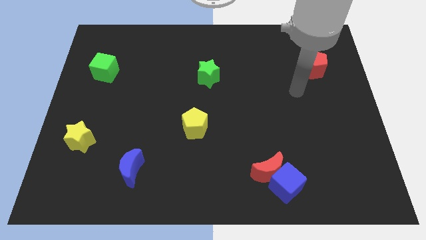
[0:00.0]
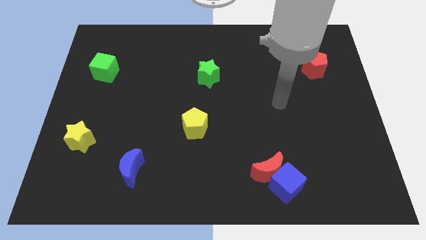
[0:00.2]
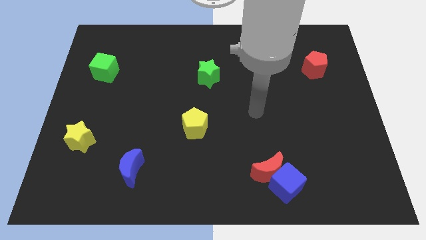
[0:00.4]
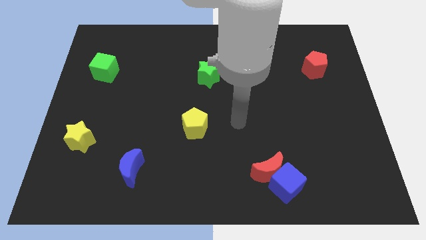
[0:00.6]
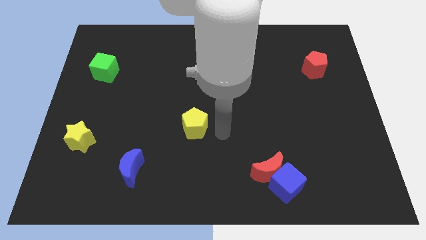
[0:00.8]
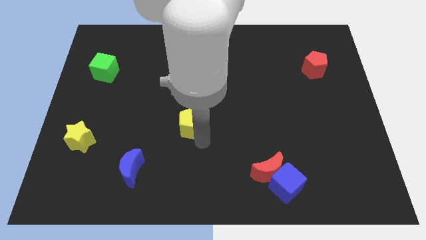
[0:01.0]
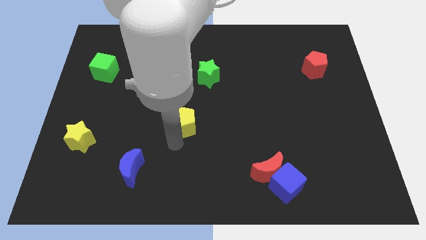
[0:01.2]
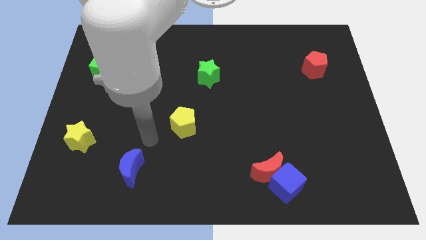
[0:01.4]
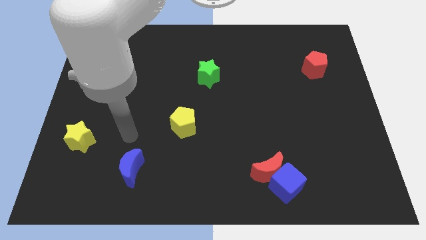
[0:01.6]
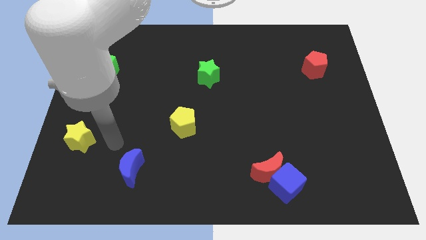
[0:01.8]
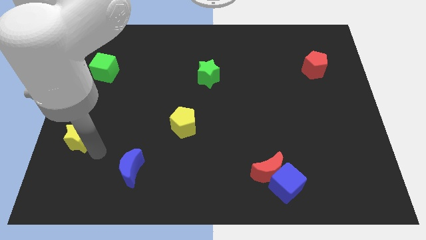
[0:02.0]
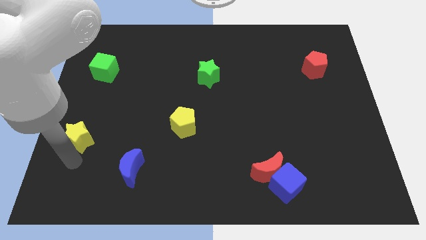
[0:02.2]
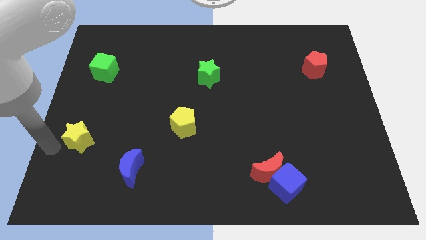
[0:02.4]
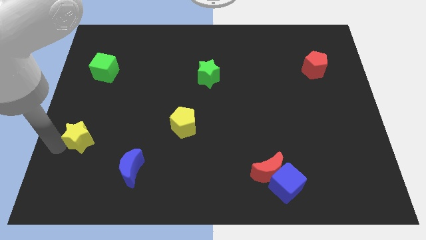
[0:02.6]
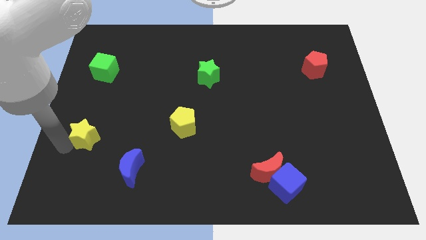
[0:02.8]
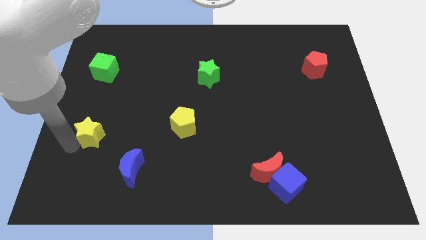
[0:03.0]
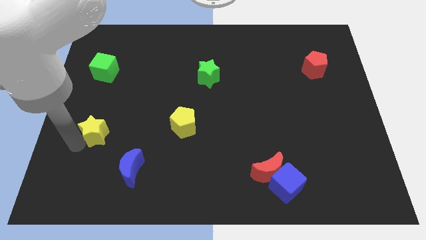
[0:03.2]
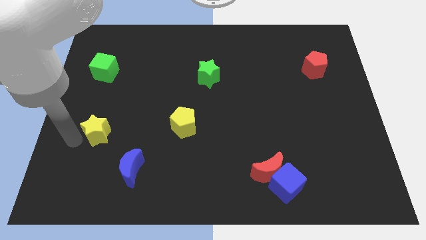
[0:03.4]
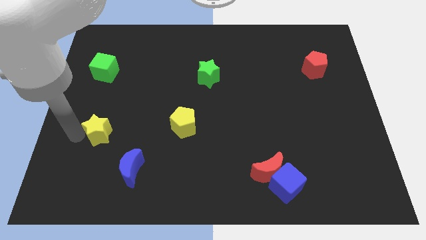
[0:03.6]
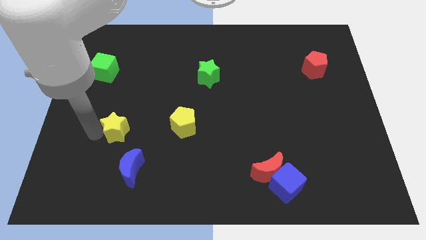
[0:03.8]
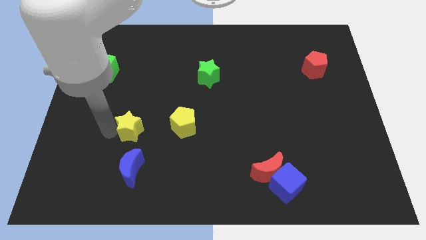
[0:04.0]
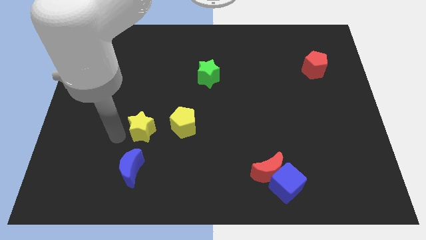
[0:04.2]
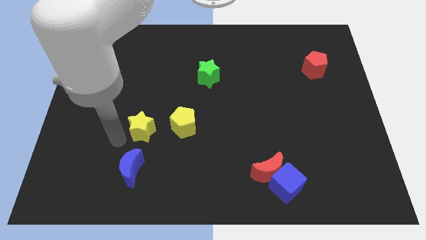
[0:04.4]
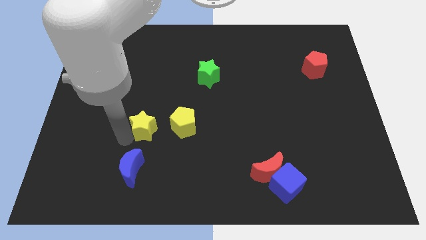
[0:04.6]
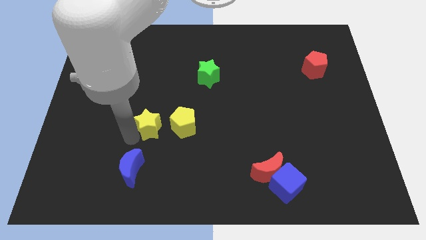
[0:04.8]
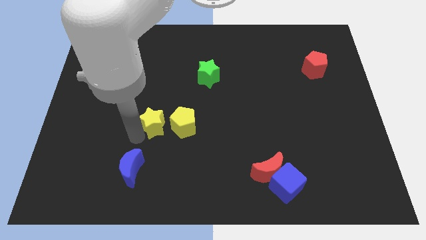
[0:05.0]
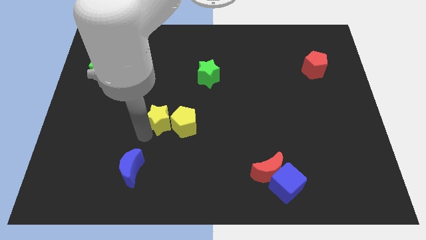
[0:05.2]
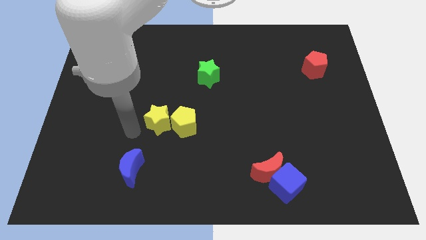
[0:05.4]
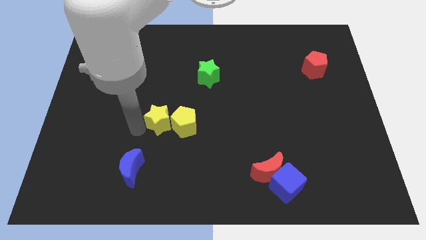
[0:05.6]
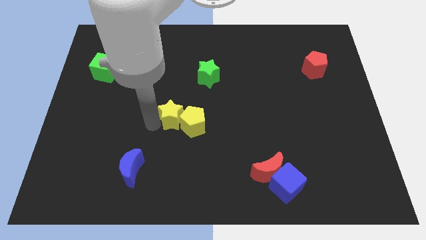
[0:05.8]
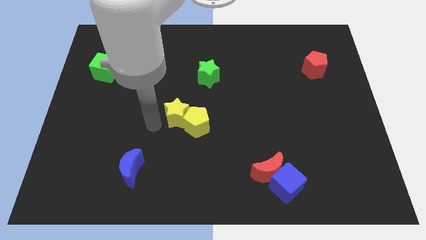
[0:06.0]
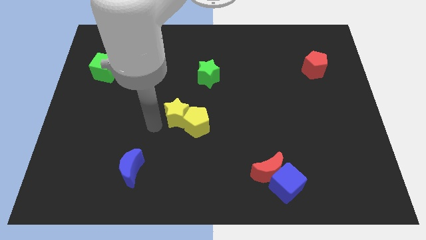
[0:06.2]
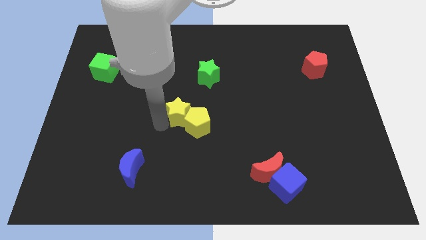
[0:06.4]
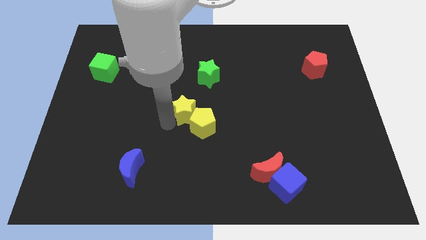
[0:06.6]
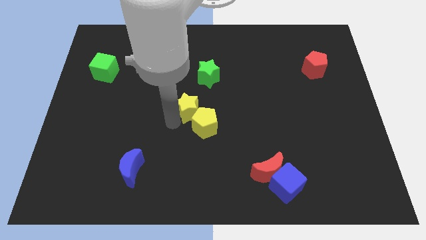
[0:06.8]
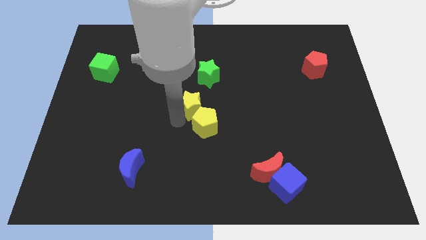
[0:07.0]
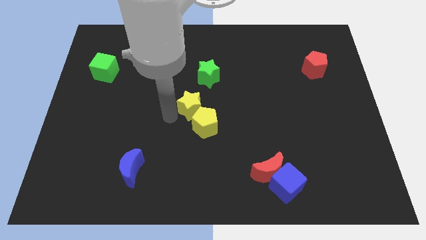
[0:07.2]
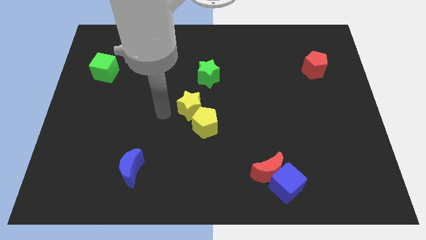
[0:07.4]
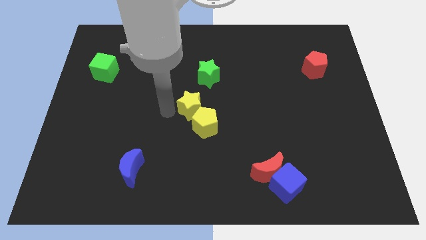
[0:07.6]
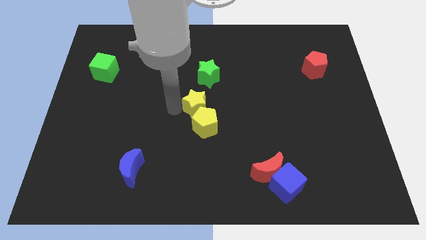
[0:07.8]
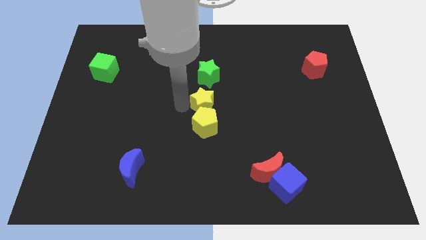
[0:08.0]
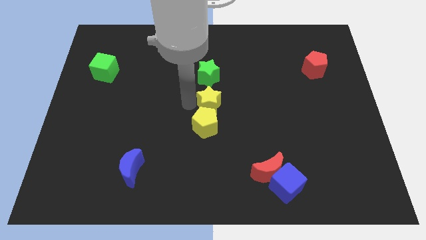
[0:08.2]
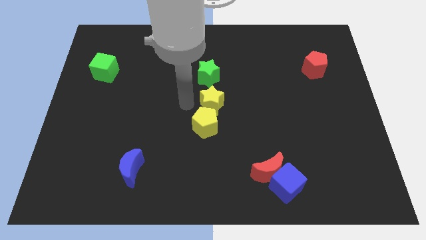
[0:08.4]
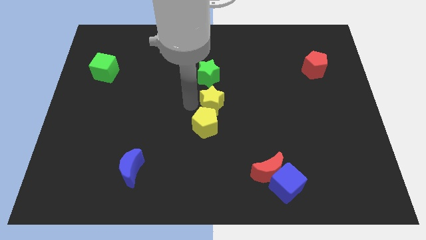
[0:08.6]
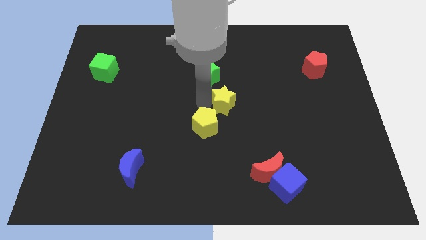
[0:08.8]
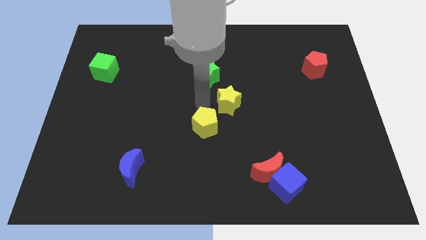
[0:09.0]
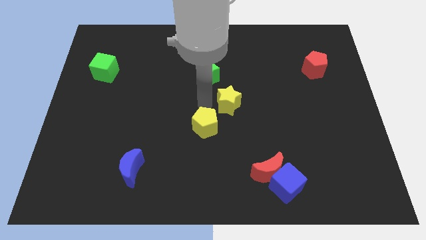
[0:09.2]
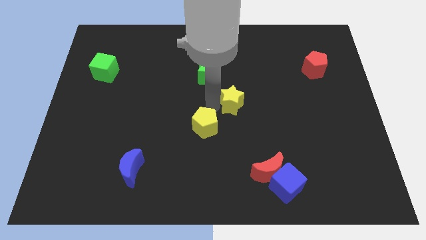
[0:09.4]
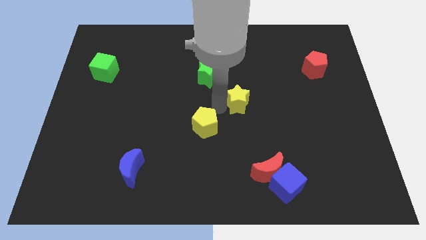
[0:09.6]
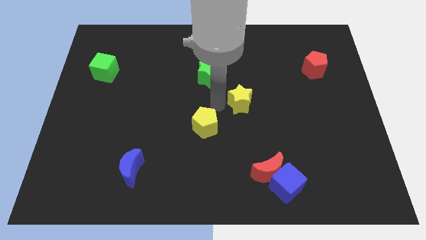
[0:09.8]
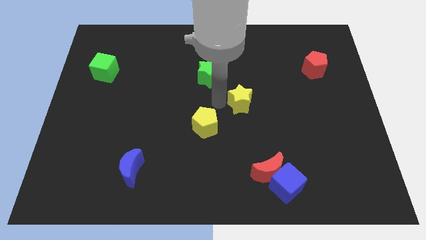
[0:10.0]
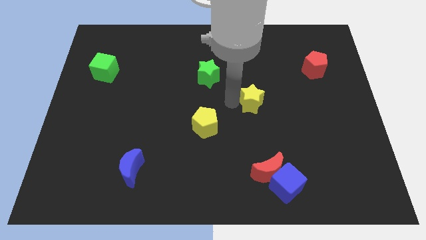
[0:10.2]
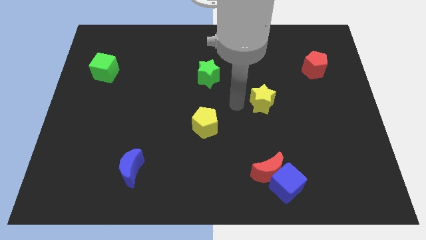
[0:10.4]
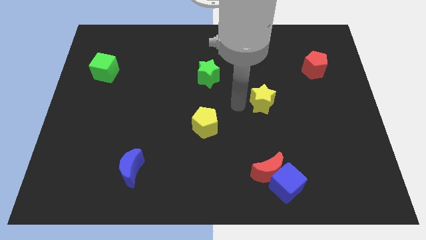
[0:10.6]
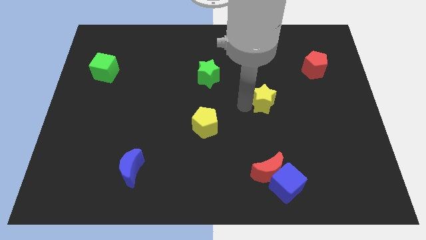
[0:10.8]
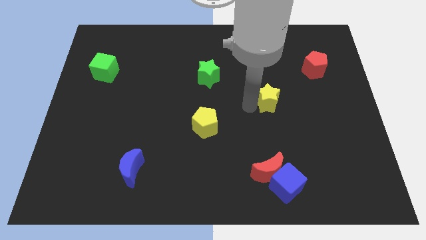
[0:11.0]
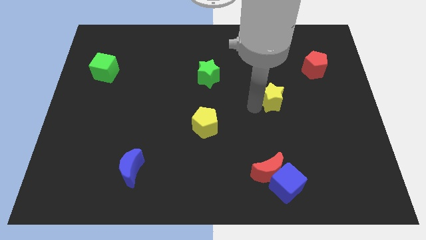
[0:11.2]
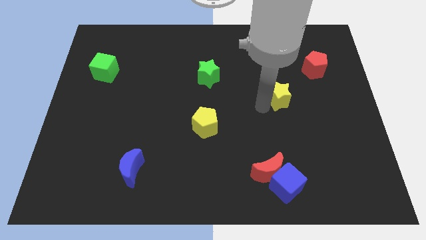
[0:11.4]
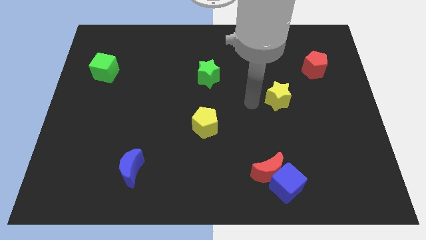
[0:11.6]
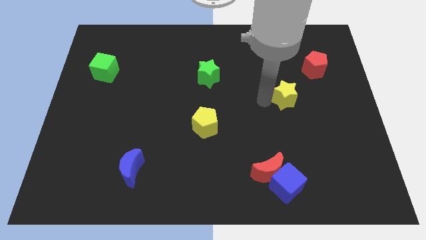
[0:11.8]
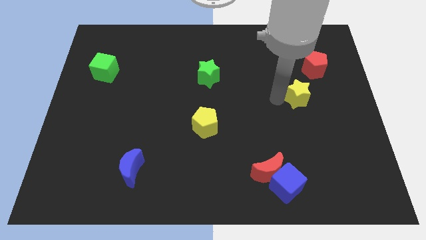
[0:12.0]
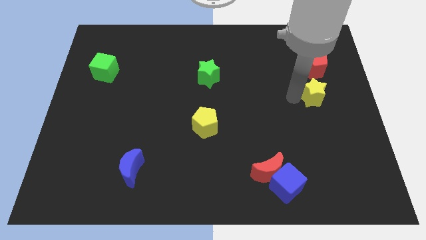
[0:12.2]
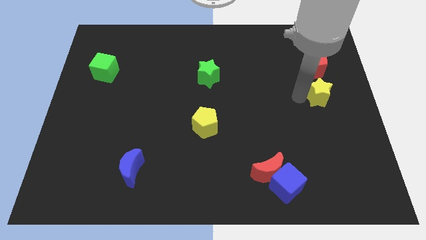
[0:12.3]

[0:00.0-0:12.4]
push the yellow star to the center right

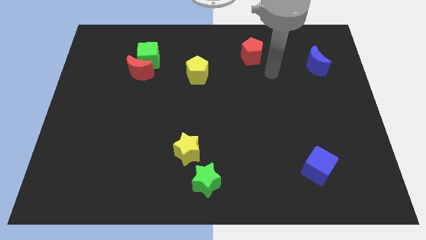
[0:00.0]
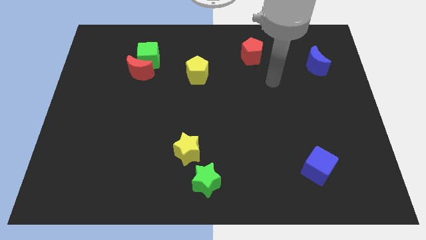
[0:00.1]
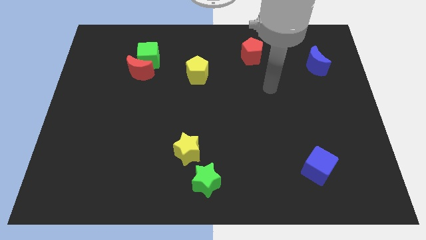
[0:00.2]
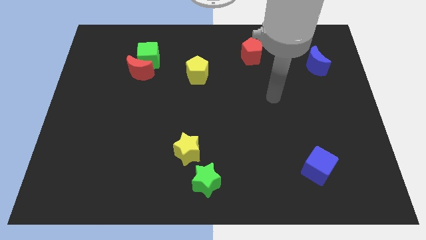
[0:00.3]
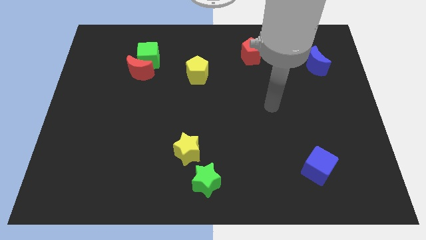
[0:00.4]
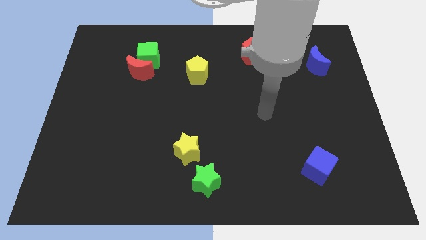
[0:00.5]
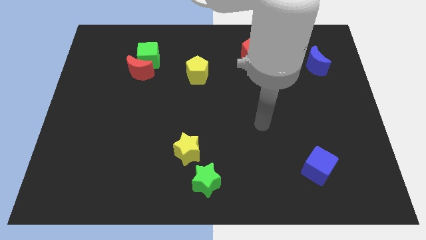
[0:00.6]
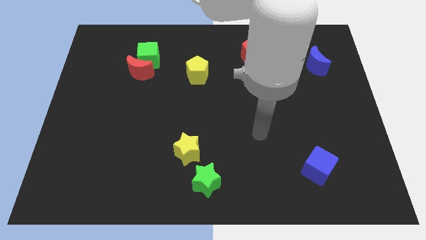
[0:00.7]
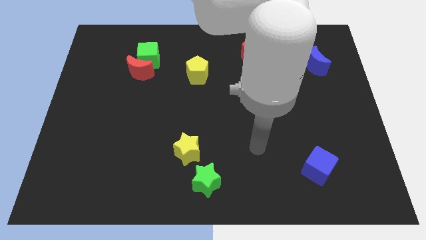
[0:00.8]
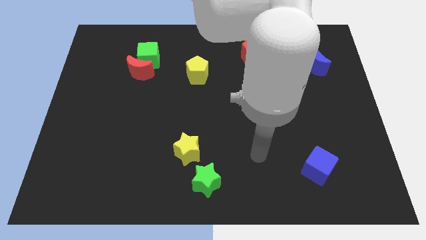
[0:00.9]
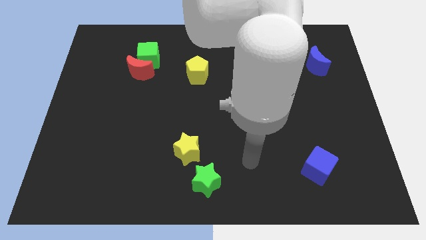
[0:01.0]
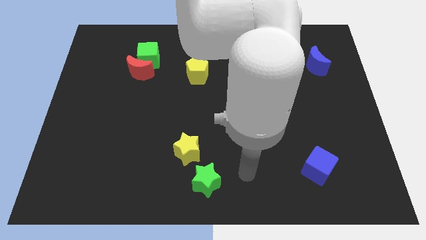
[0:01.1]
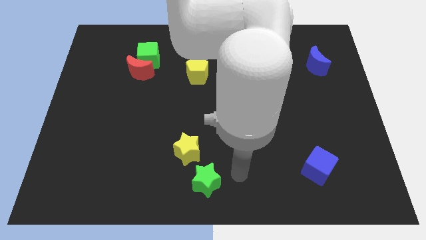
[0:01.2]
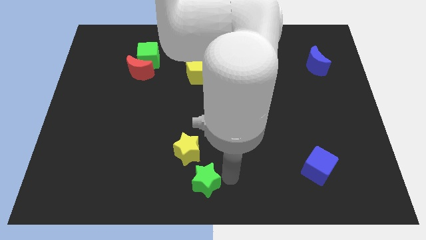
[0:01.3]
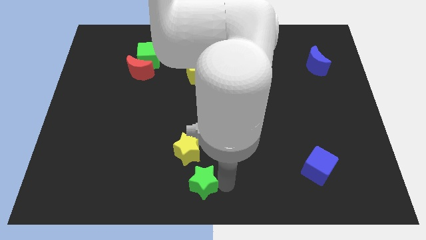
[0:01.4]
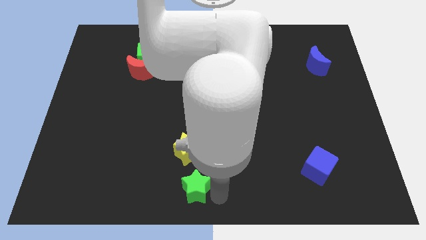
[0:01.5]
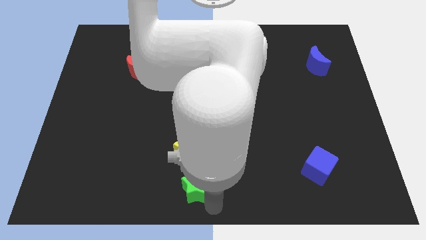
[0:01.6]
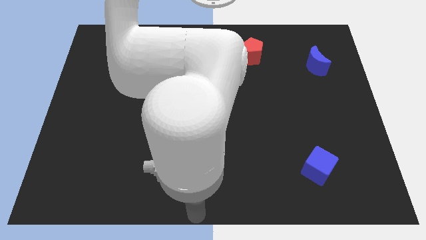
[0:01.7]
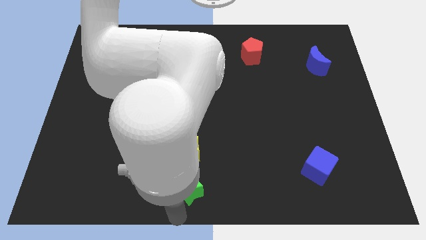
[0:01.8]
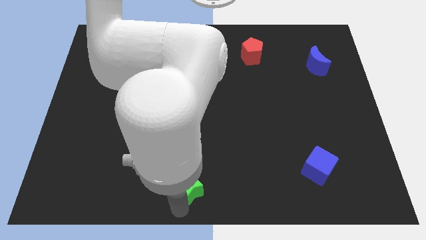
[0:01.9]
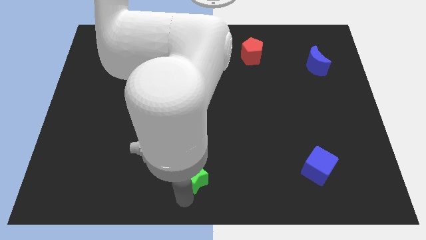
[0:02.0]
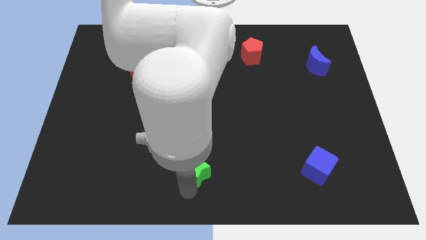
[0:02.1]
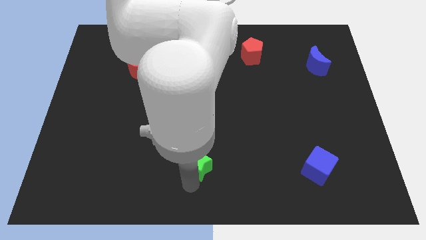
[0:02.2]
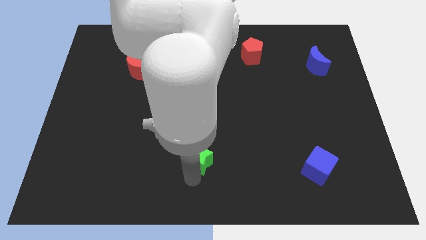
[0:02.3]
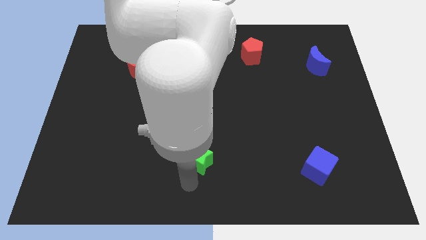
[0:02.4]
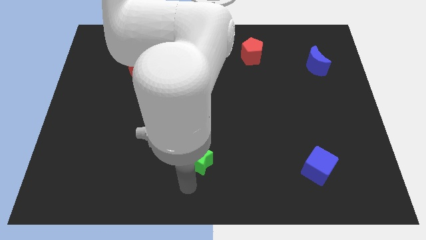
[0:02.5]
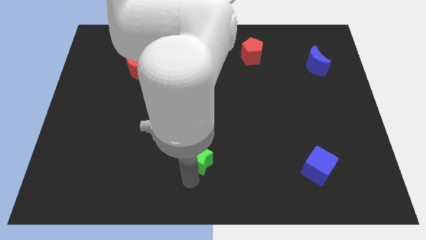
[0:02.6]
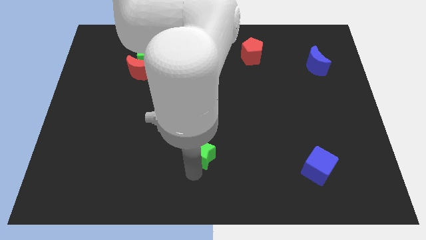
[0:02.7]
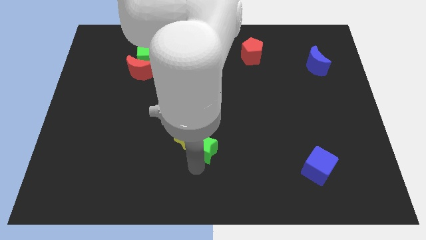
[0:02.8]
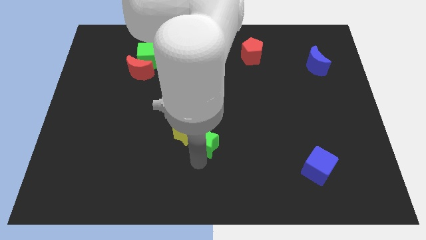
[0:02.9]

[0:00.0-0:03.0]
move the green star to the center
